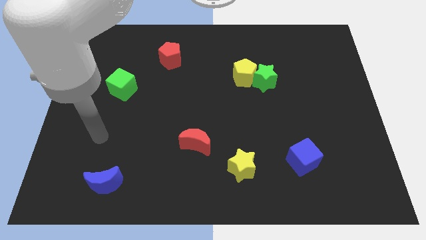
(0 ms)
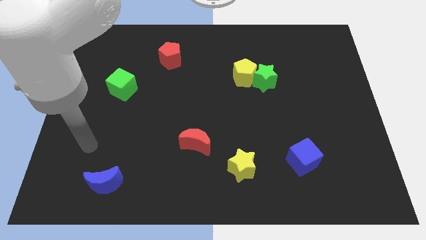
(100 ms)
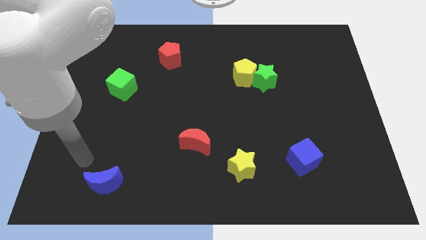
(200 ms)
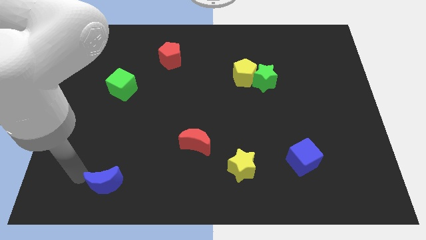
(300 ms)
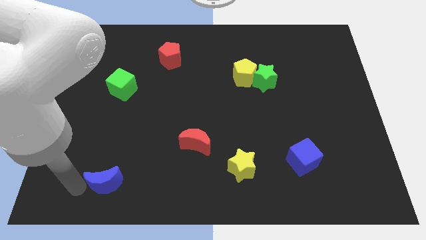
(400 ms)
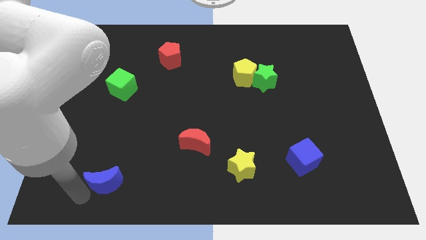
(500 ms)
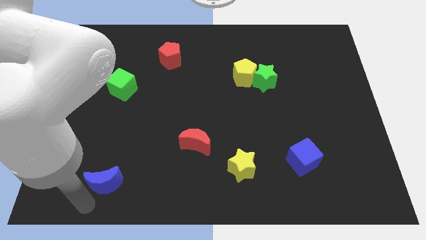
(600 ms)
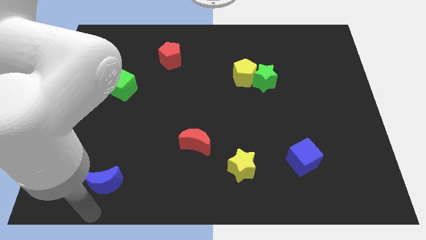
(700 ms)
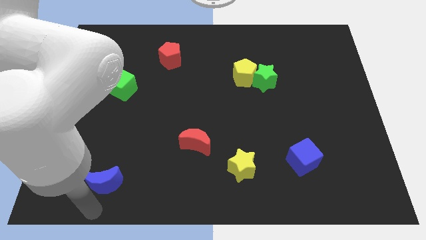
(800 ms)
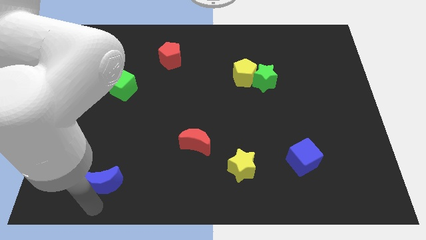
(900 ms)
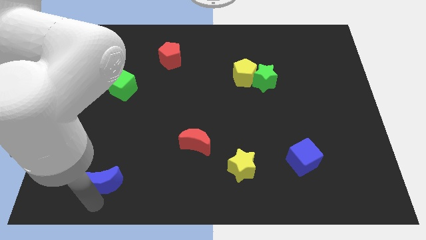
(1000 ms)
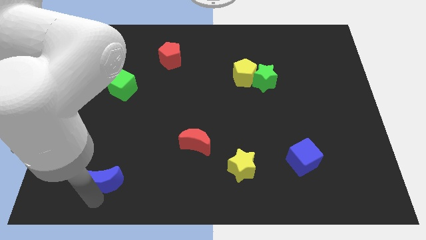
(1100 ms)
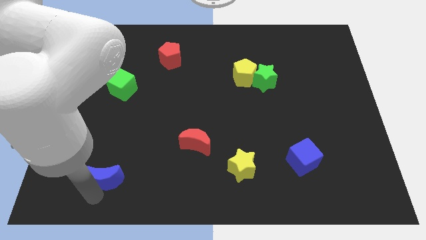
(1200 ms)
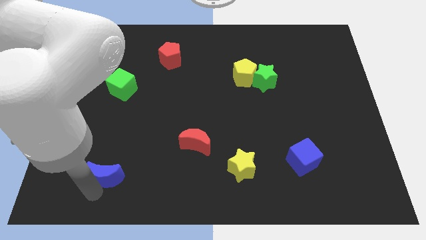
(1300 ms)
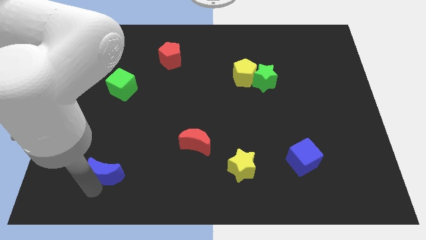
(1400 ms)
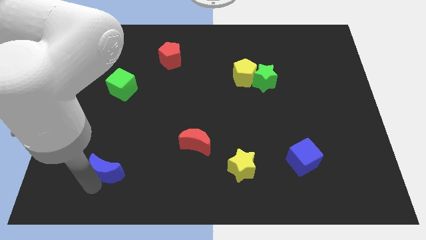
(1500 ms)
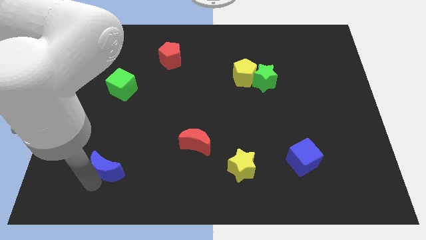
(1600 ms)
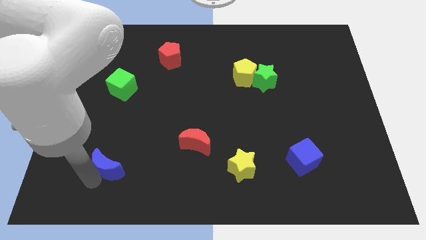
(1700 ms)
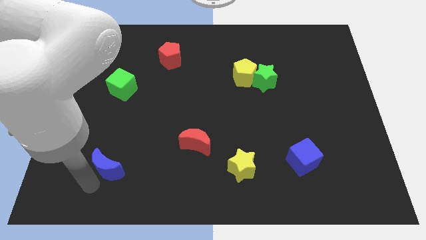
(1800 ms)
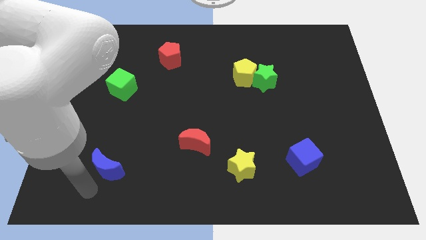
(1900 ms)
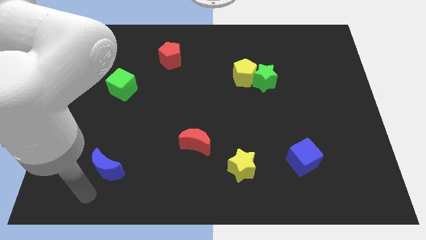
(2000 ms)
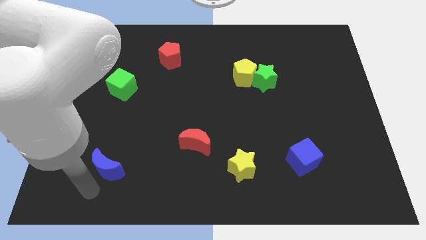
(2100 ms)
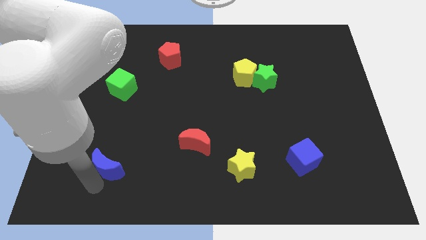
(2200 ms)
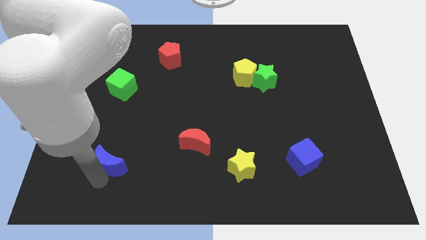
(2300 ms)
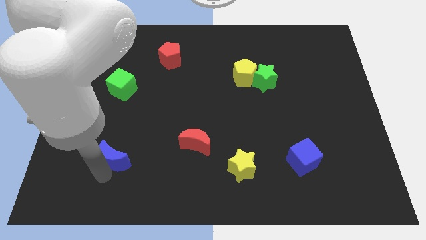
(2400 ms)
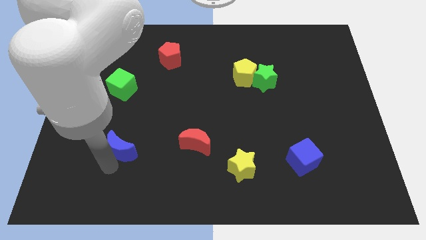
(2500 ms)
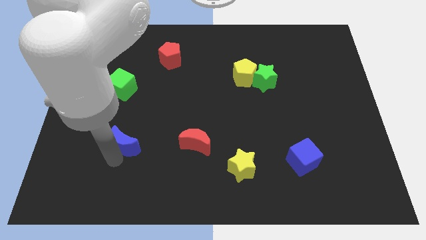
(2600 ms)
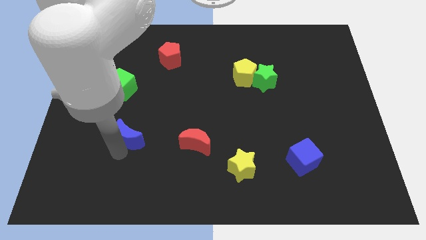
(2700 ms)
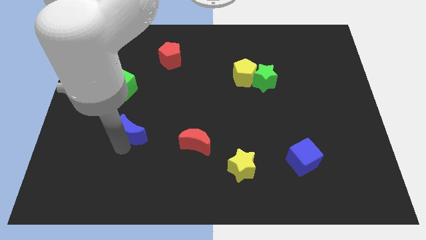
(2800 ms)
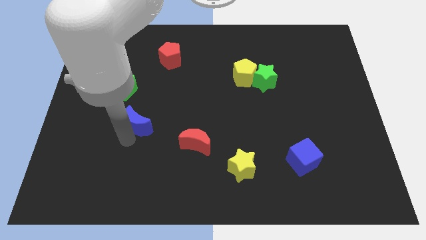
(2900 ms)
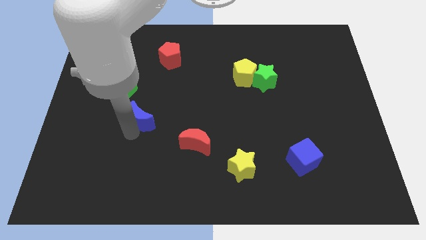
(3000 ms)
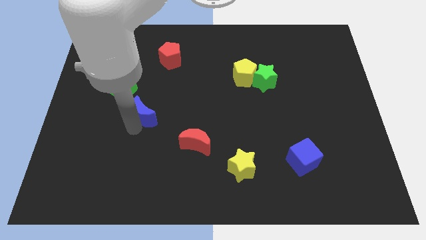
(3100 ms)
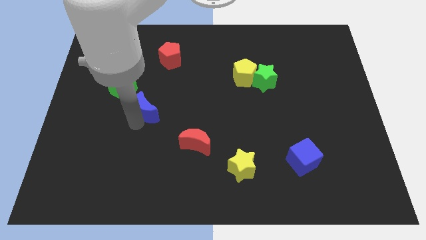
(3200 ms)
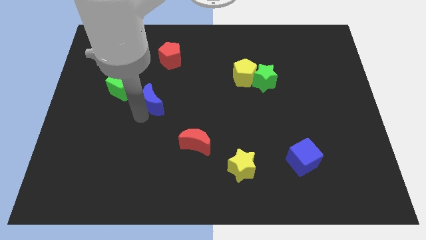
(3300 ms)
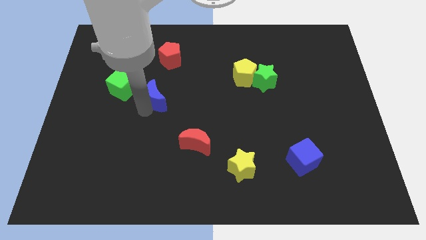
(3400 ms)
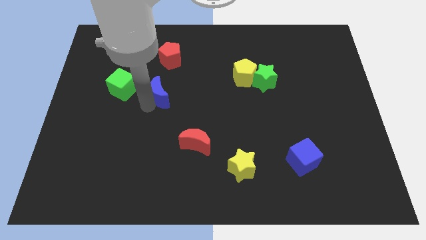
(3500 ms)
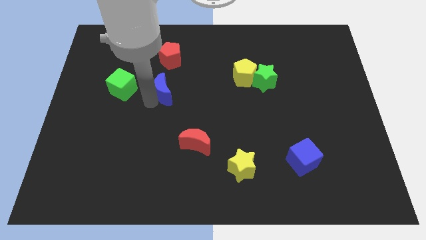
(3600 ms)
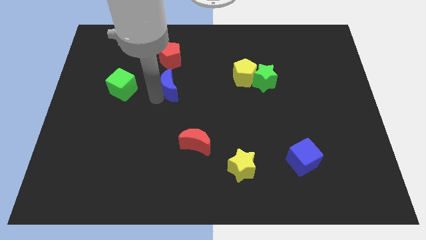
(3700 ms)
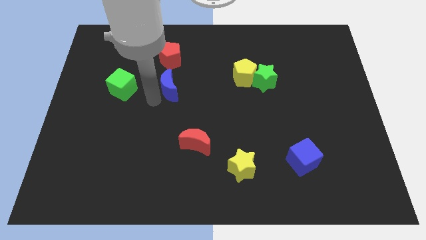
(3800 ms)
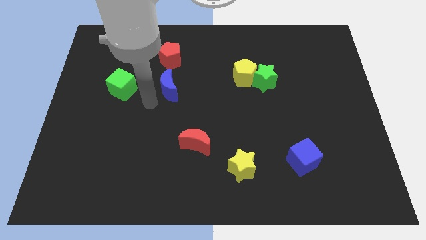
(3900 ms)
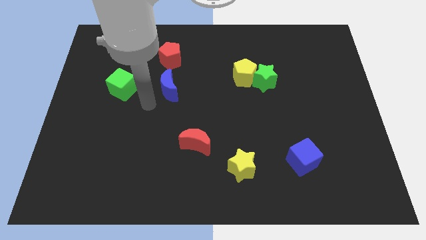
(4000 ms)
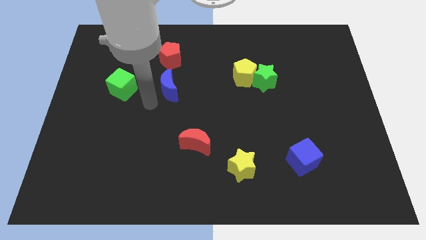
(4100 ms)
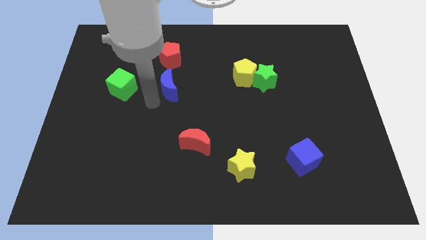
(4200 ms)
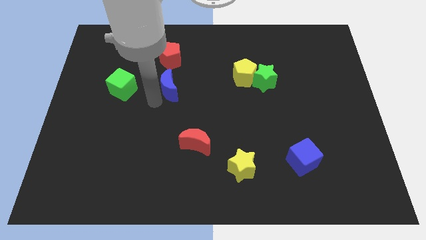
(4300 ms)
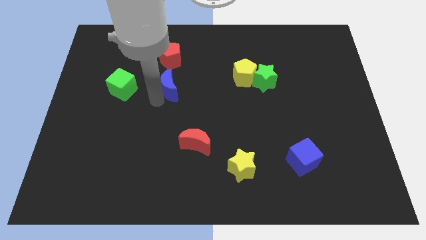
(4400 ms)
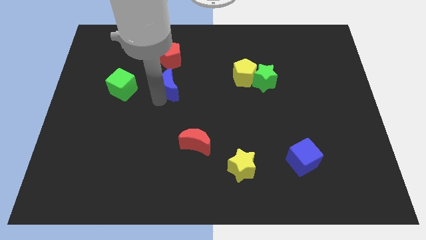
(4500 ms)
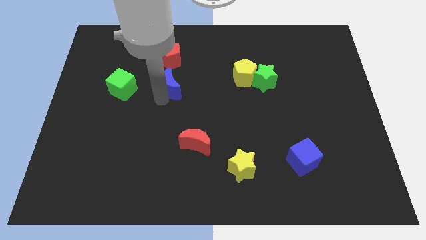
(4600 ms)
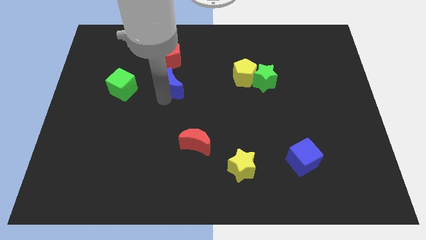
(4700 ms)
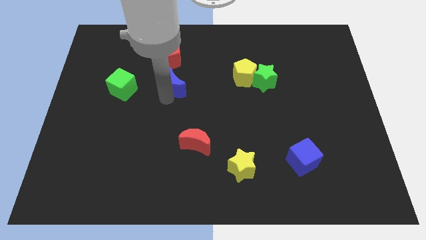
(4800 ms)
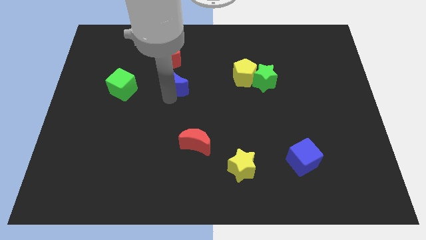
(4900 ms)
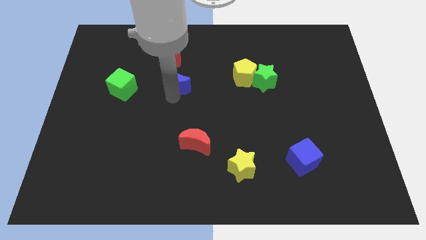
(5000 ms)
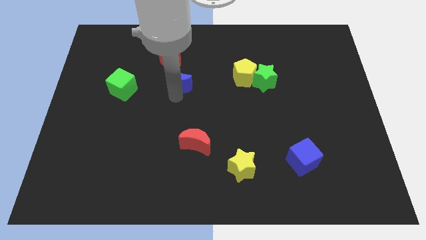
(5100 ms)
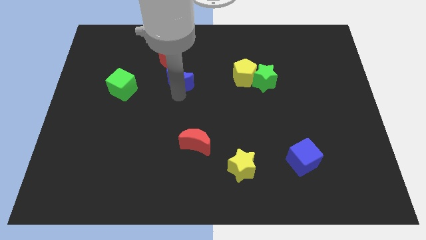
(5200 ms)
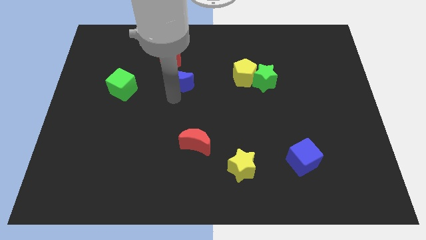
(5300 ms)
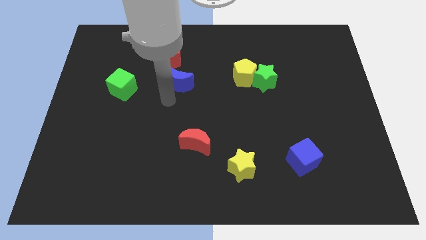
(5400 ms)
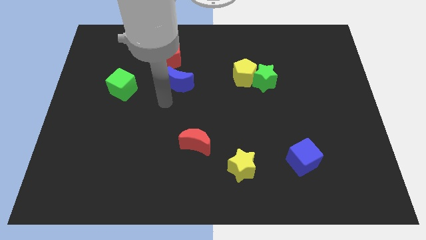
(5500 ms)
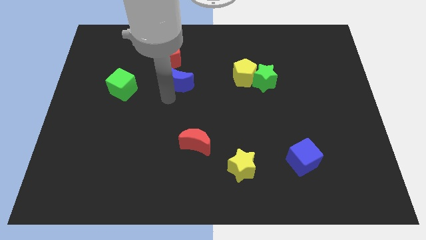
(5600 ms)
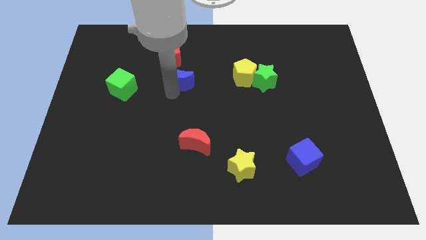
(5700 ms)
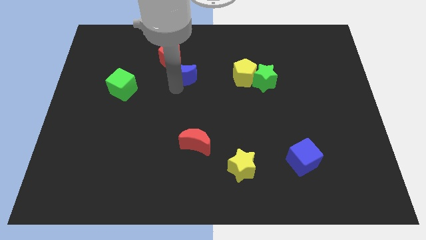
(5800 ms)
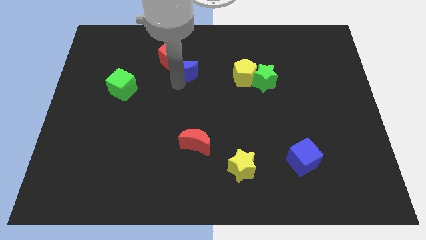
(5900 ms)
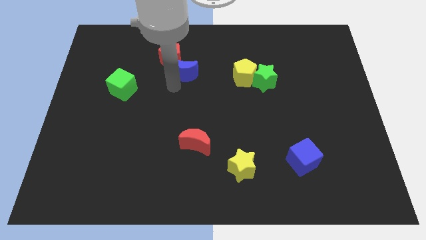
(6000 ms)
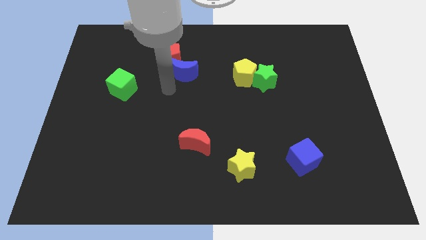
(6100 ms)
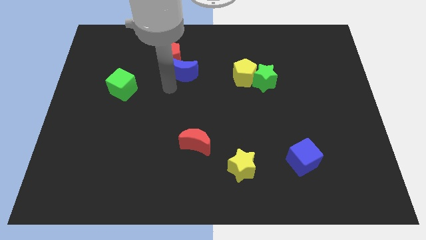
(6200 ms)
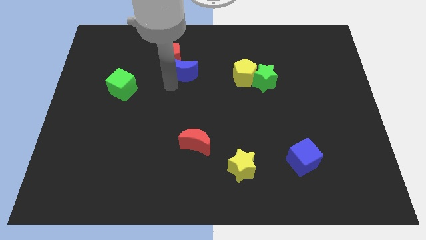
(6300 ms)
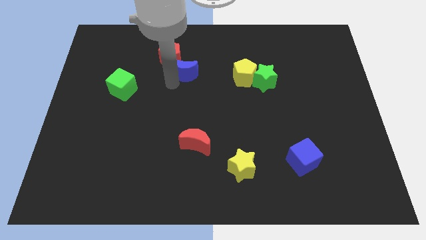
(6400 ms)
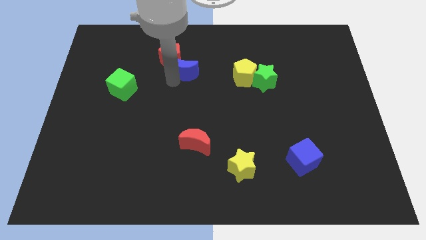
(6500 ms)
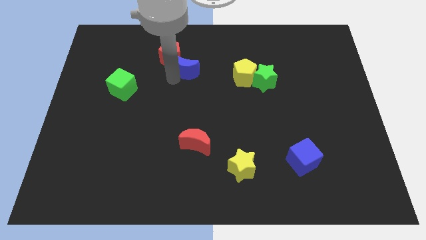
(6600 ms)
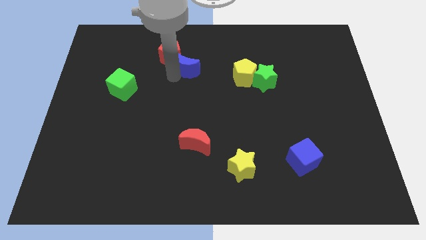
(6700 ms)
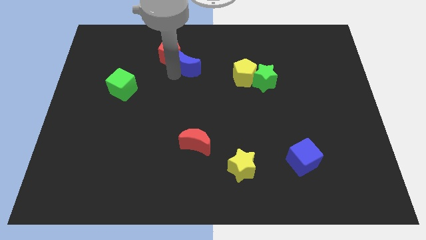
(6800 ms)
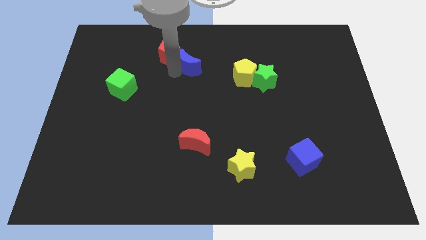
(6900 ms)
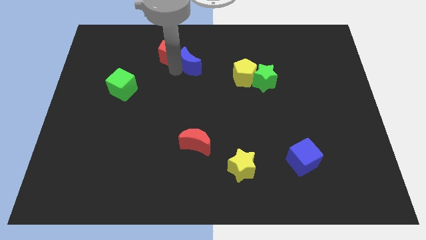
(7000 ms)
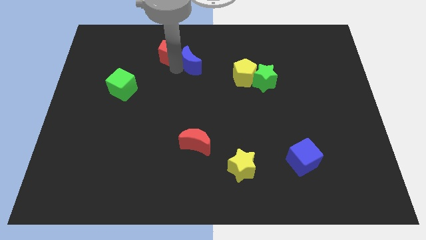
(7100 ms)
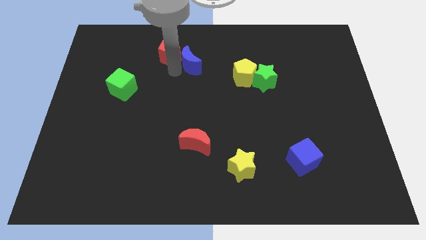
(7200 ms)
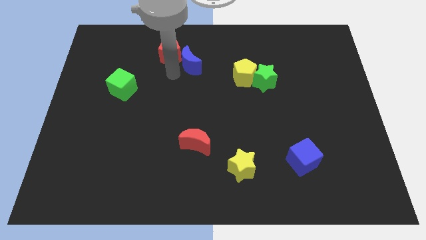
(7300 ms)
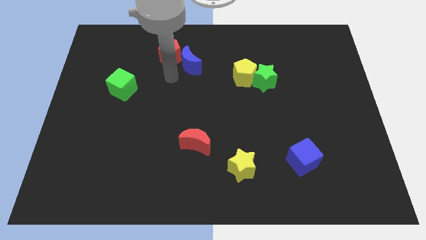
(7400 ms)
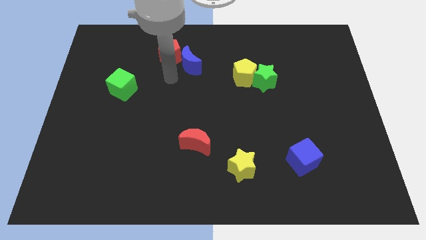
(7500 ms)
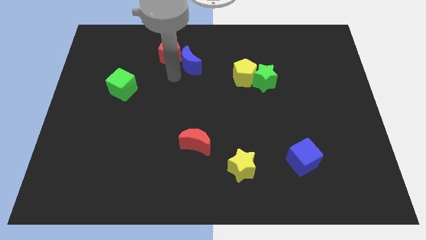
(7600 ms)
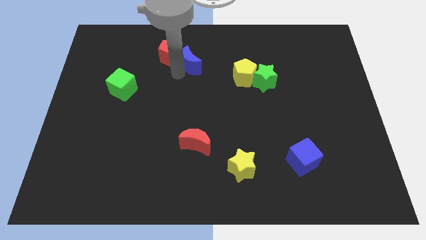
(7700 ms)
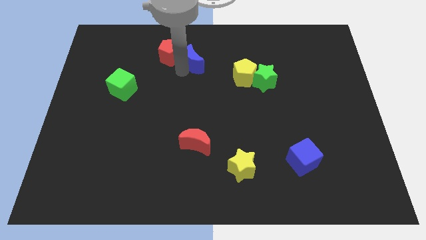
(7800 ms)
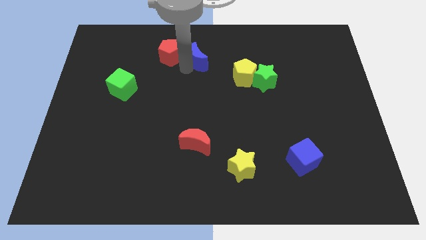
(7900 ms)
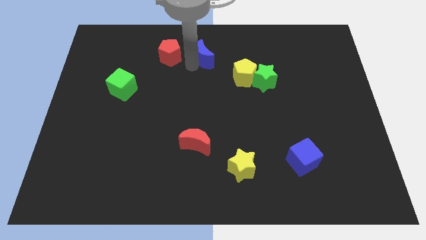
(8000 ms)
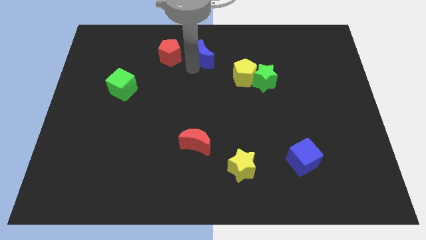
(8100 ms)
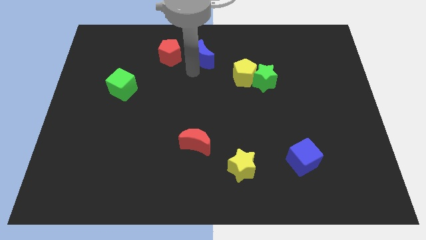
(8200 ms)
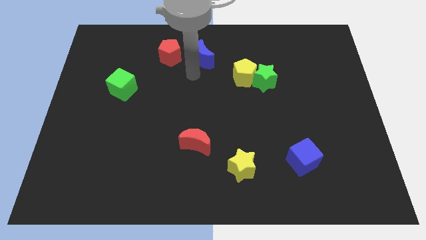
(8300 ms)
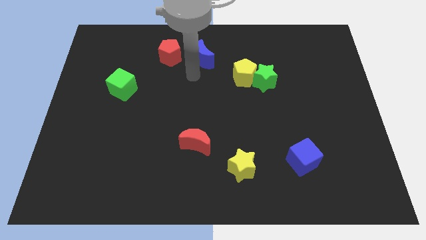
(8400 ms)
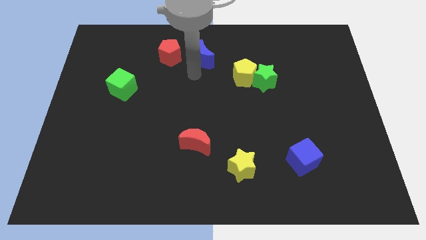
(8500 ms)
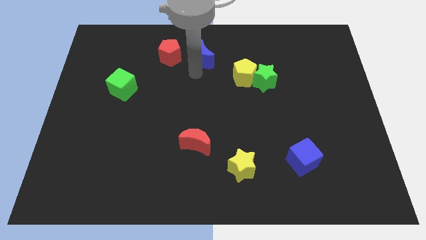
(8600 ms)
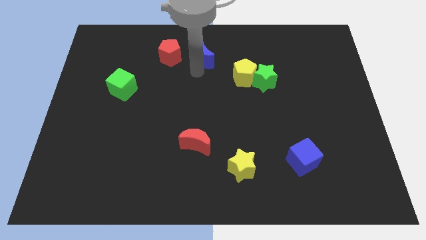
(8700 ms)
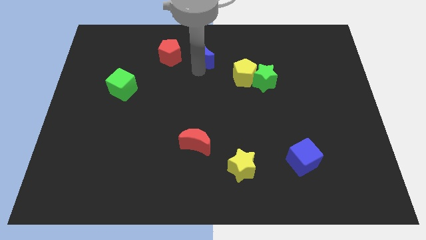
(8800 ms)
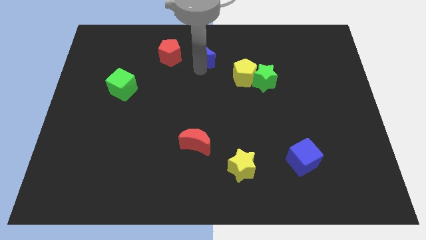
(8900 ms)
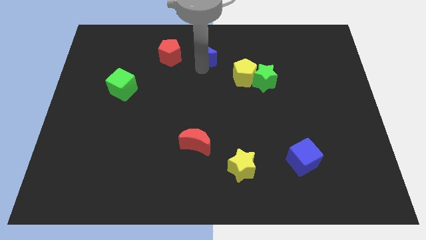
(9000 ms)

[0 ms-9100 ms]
slide the blue moon to the top side
